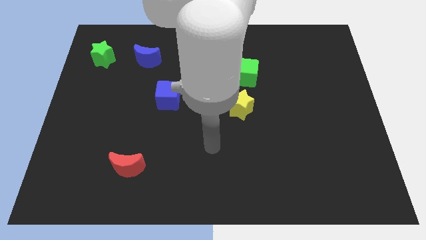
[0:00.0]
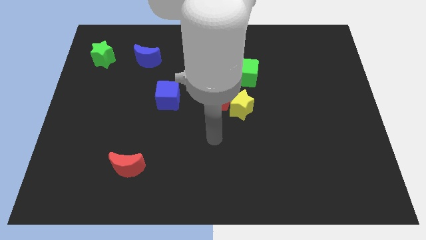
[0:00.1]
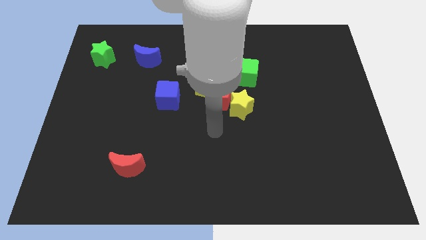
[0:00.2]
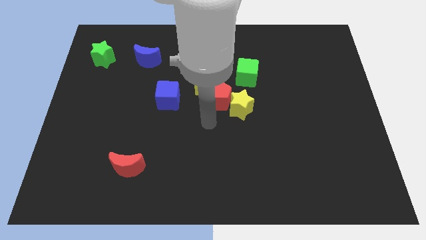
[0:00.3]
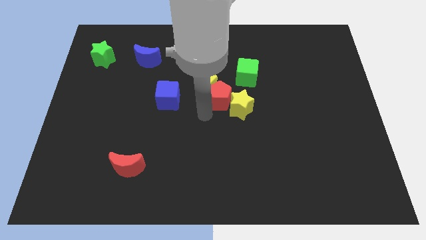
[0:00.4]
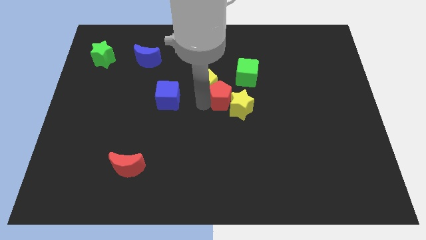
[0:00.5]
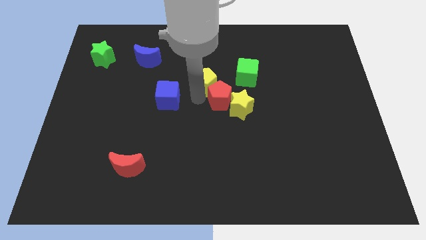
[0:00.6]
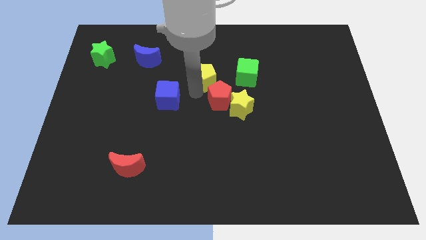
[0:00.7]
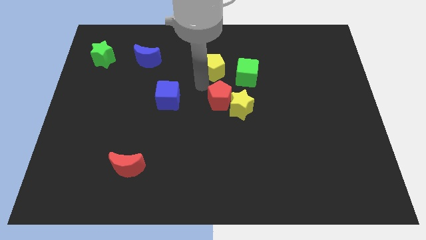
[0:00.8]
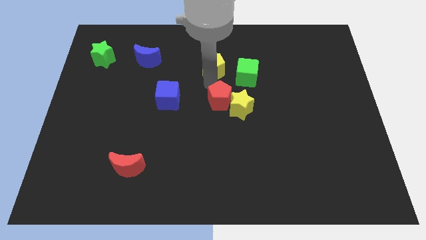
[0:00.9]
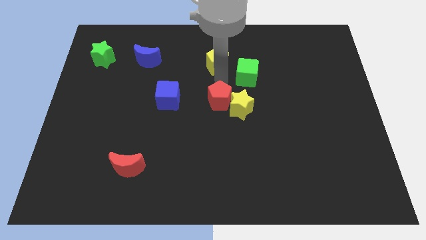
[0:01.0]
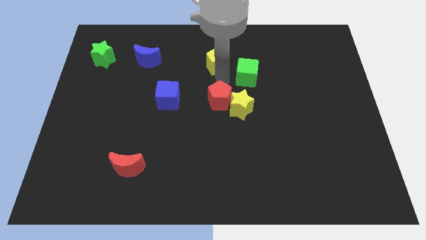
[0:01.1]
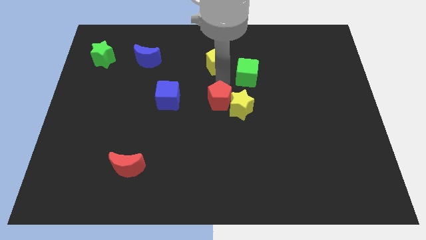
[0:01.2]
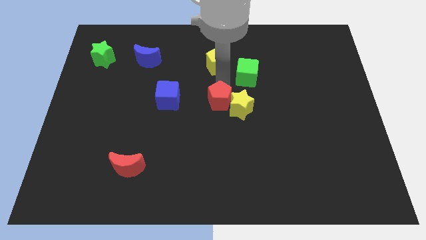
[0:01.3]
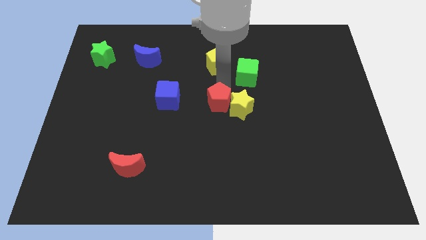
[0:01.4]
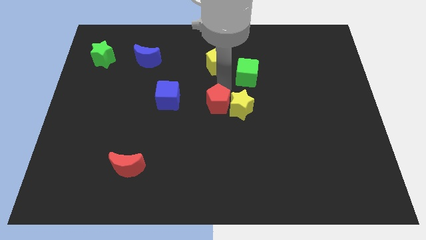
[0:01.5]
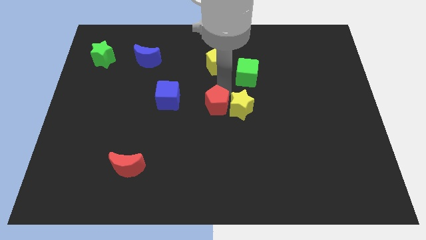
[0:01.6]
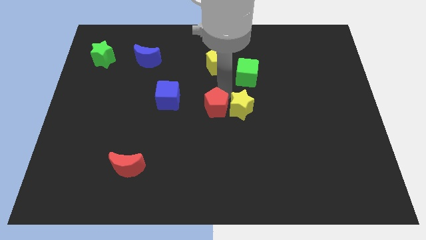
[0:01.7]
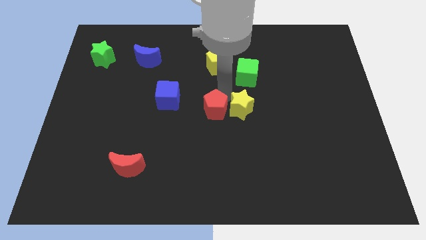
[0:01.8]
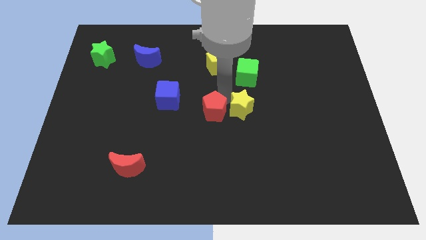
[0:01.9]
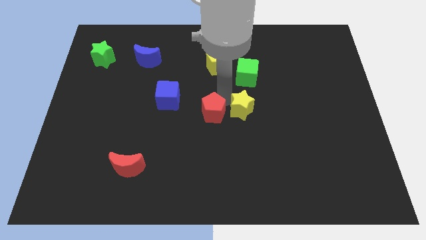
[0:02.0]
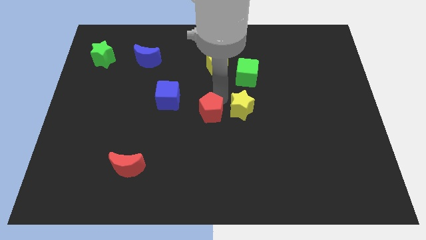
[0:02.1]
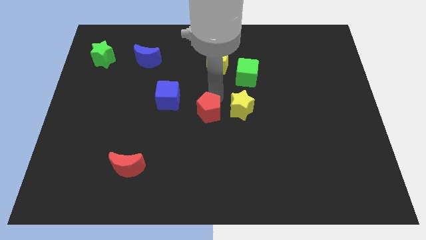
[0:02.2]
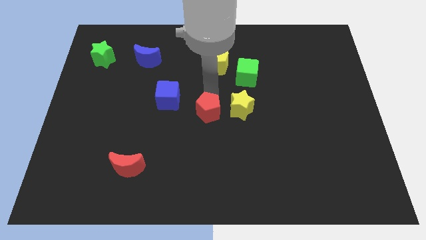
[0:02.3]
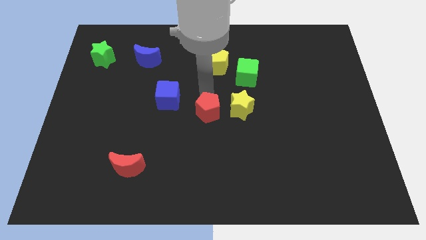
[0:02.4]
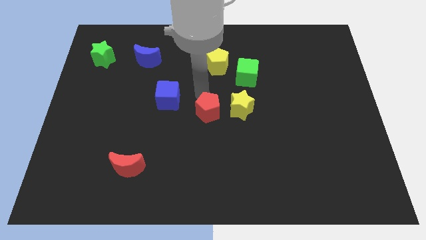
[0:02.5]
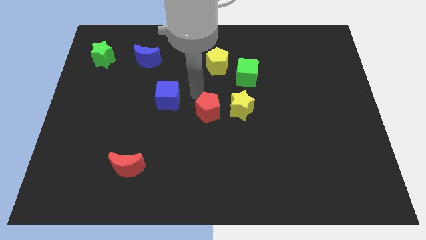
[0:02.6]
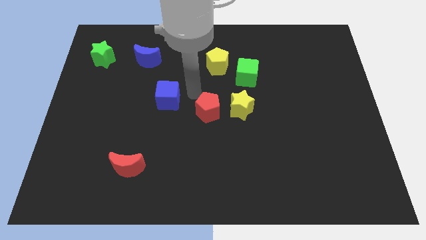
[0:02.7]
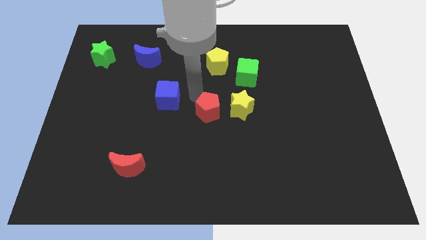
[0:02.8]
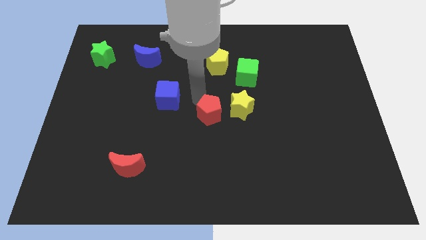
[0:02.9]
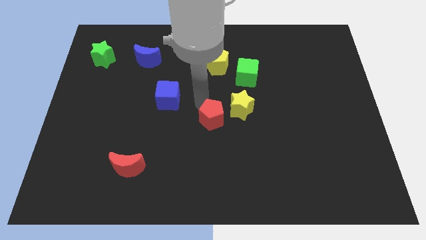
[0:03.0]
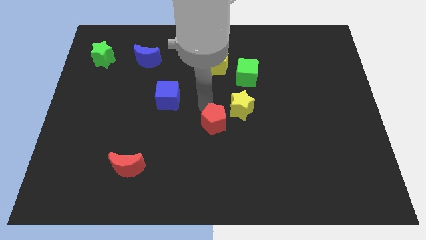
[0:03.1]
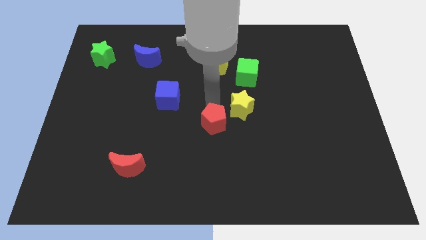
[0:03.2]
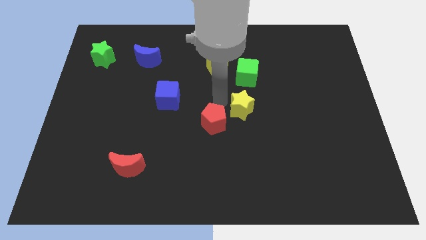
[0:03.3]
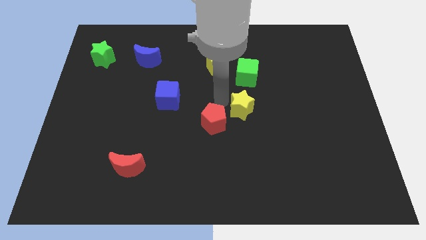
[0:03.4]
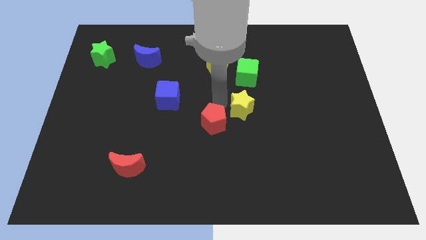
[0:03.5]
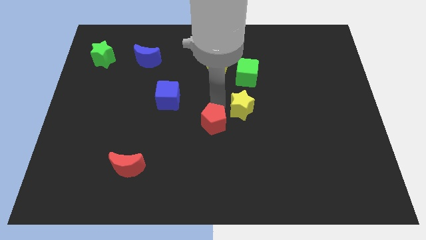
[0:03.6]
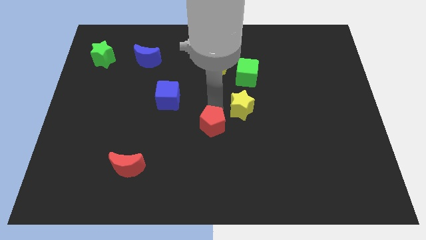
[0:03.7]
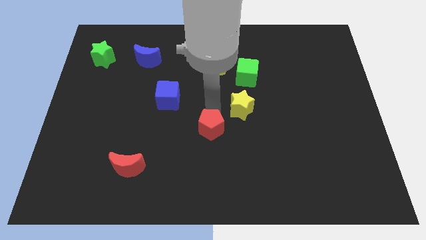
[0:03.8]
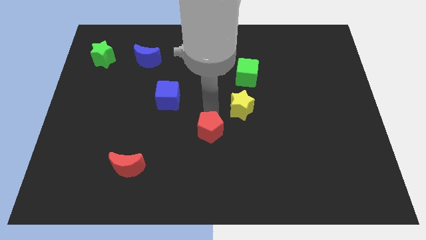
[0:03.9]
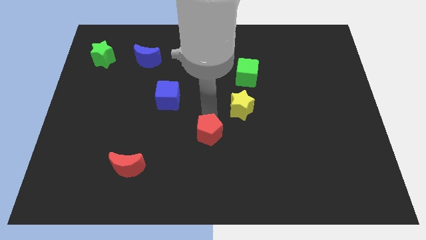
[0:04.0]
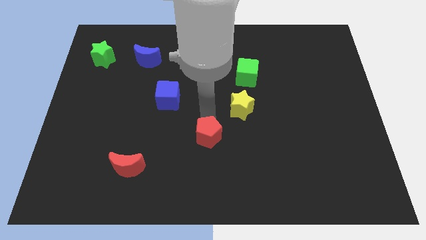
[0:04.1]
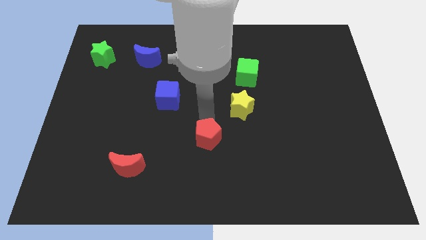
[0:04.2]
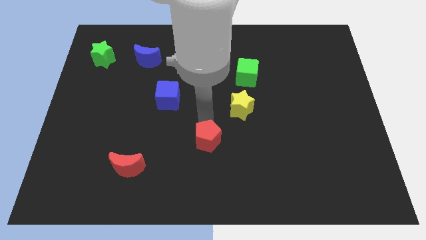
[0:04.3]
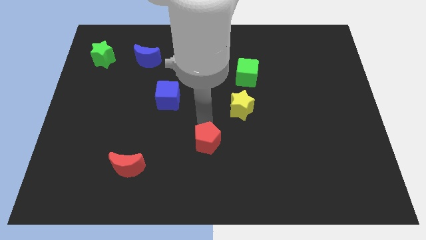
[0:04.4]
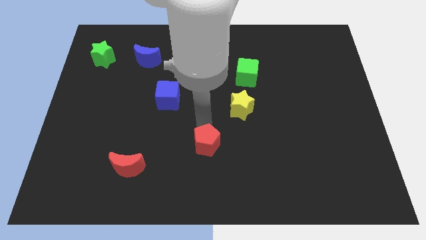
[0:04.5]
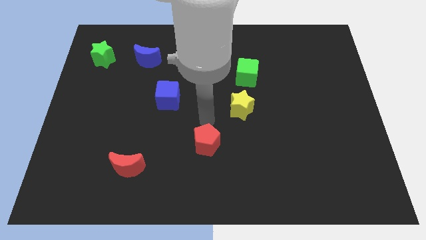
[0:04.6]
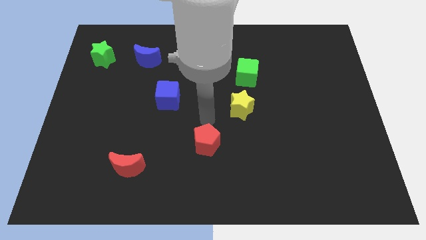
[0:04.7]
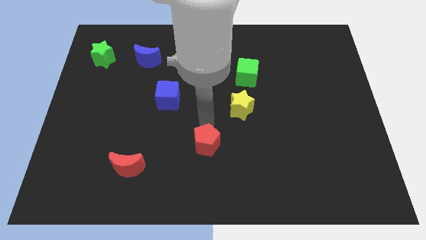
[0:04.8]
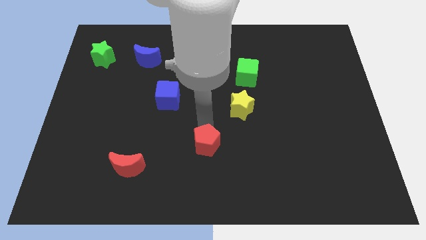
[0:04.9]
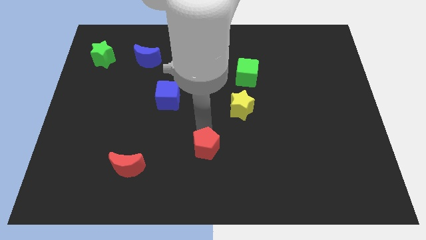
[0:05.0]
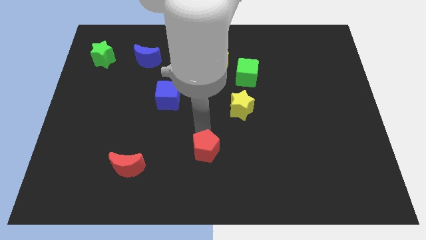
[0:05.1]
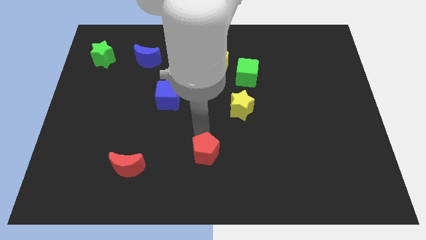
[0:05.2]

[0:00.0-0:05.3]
push the red pentagon to the bottom side

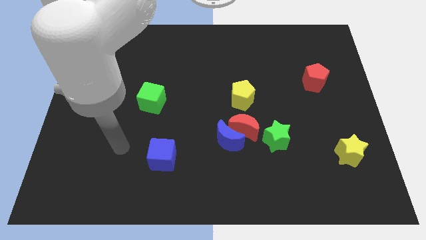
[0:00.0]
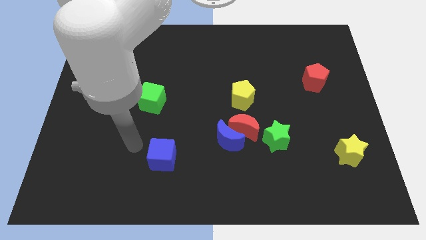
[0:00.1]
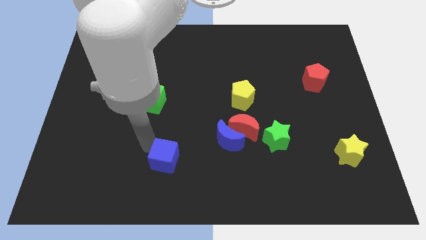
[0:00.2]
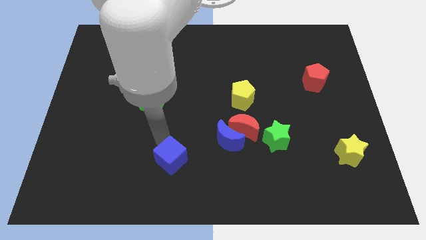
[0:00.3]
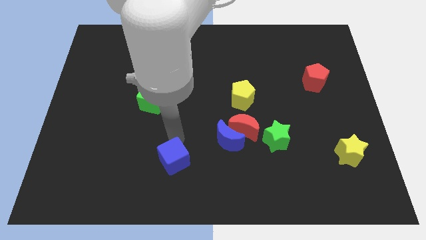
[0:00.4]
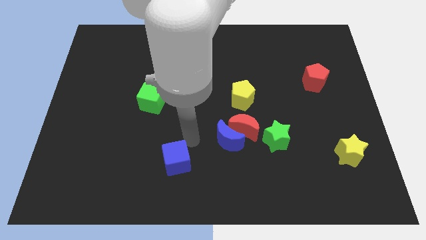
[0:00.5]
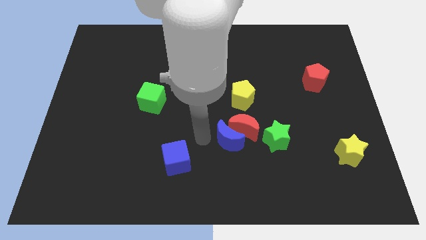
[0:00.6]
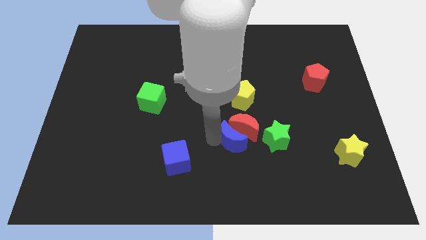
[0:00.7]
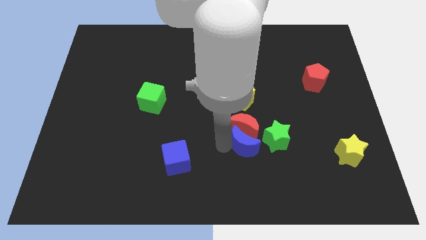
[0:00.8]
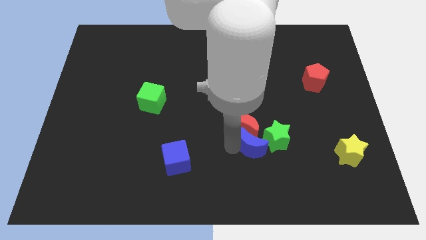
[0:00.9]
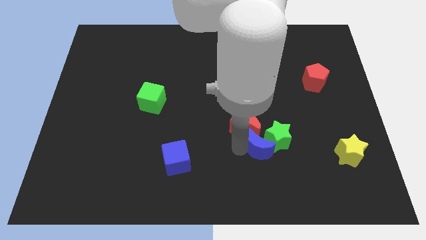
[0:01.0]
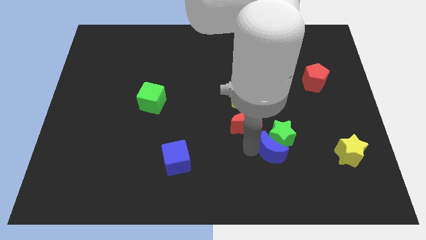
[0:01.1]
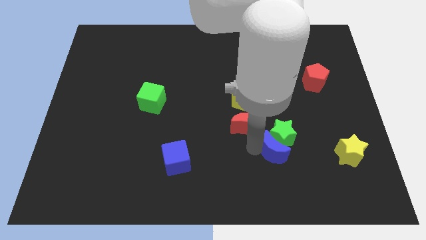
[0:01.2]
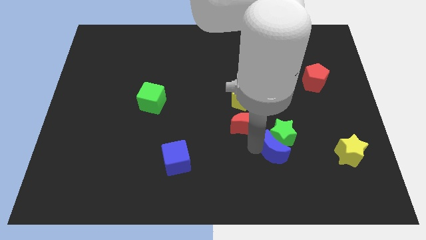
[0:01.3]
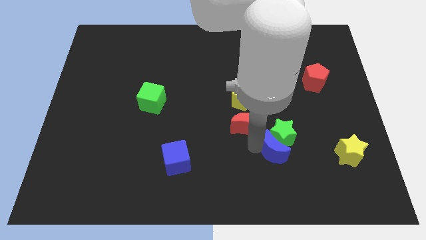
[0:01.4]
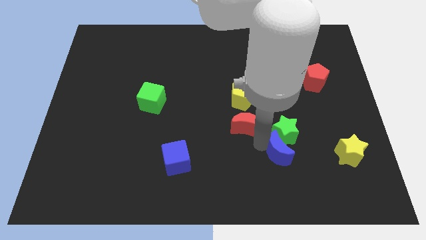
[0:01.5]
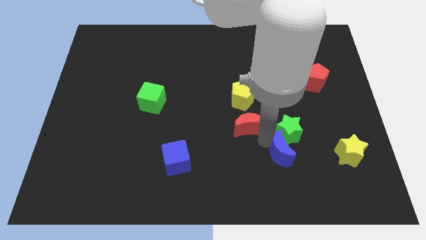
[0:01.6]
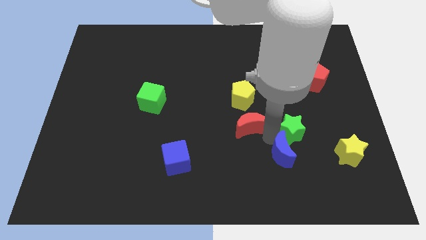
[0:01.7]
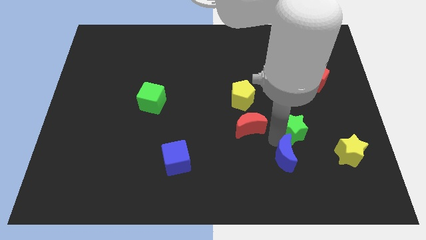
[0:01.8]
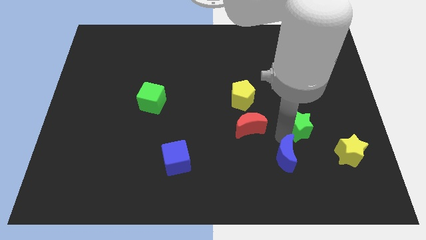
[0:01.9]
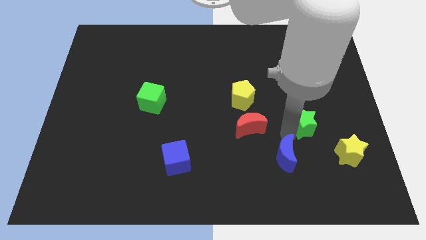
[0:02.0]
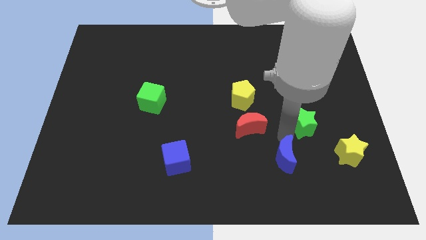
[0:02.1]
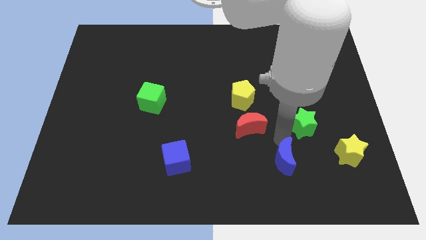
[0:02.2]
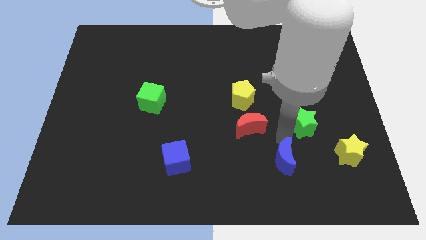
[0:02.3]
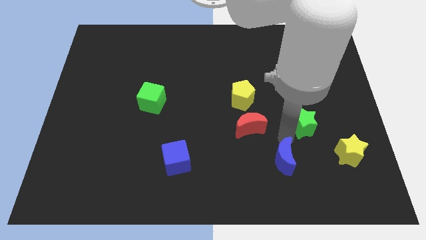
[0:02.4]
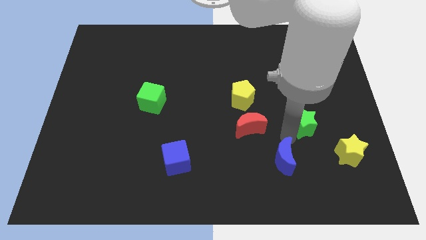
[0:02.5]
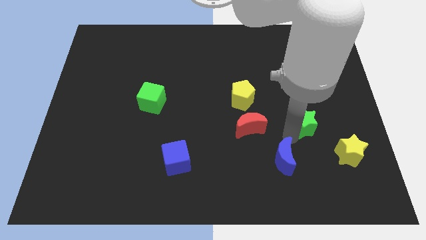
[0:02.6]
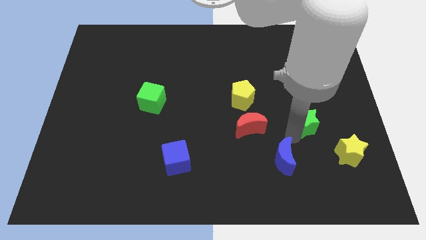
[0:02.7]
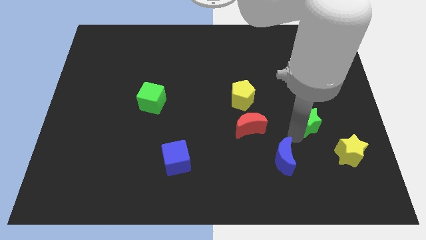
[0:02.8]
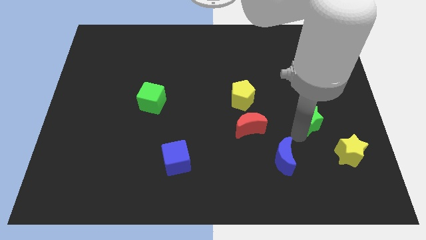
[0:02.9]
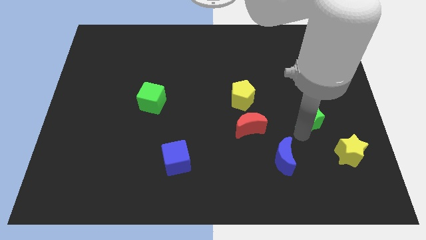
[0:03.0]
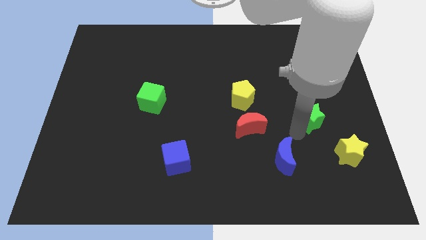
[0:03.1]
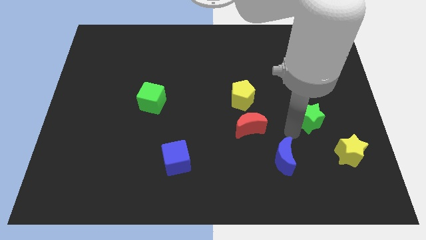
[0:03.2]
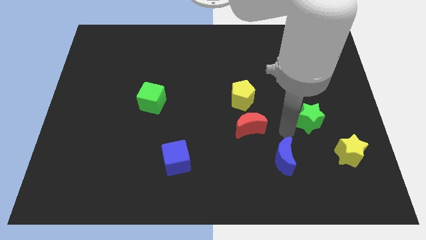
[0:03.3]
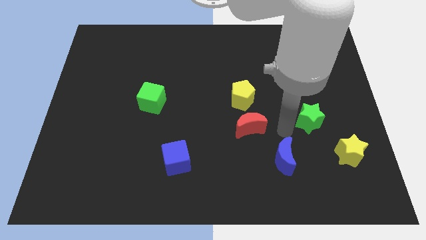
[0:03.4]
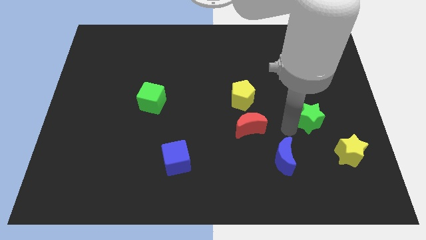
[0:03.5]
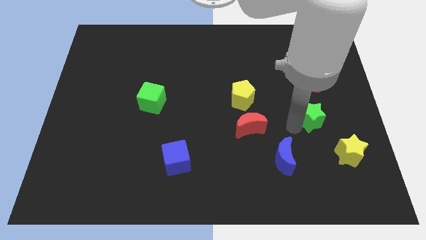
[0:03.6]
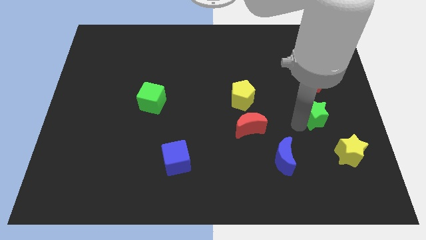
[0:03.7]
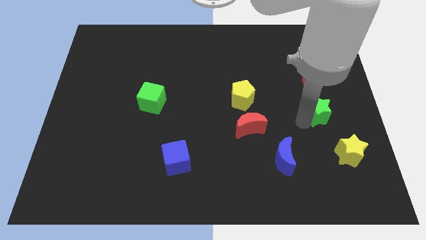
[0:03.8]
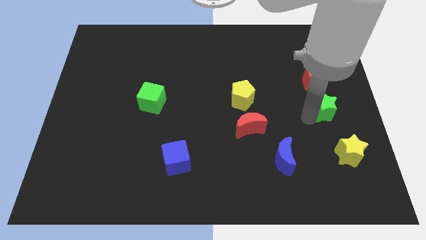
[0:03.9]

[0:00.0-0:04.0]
move the green star to the right side
